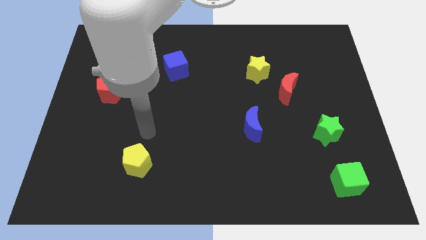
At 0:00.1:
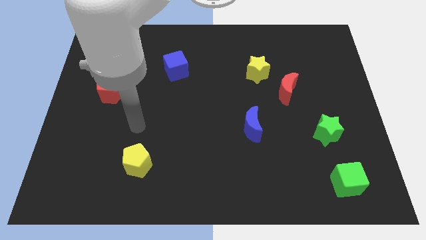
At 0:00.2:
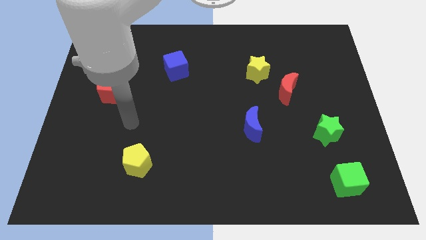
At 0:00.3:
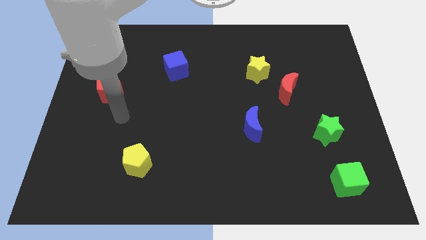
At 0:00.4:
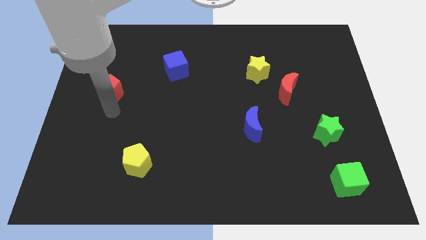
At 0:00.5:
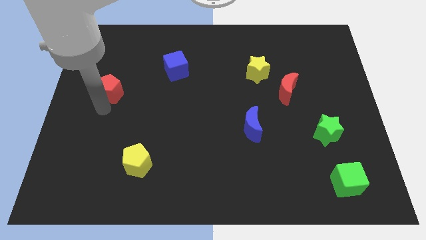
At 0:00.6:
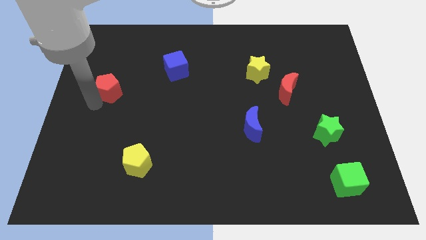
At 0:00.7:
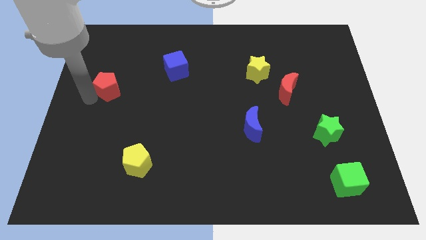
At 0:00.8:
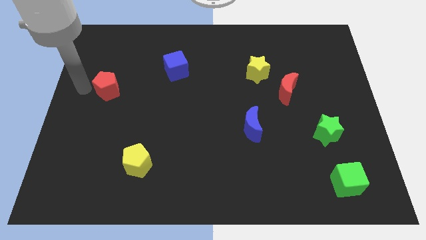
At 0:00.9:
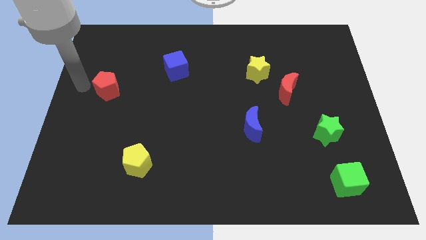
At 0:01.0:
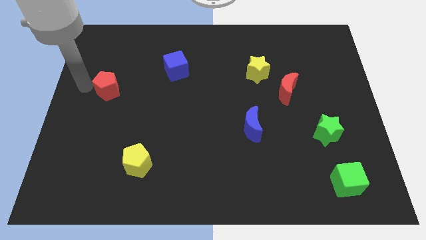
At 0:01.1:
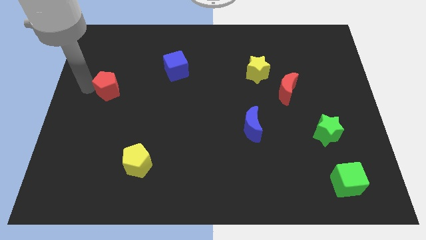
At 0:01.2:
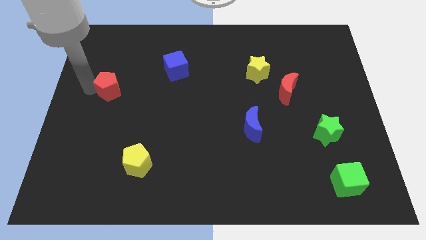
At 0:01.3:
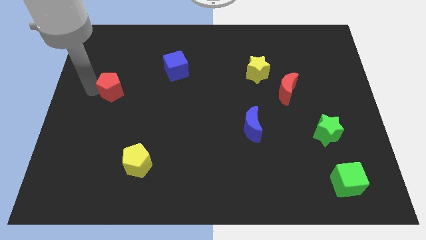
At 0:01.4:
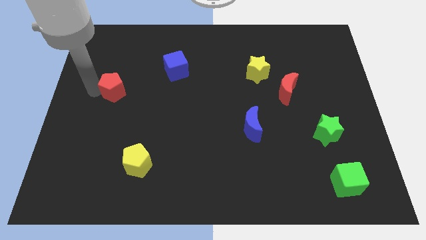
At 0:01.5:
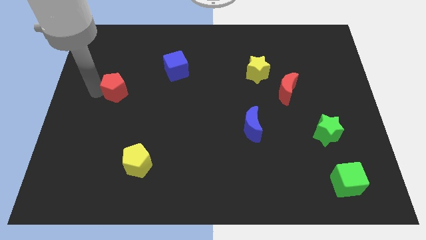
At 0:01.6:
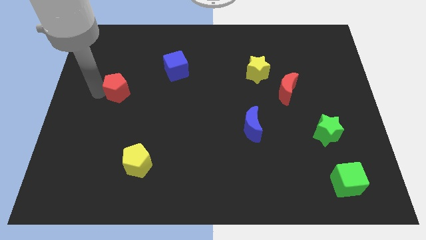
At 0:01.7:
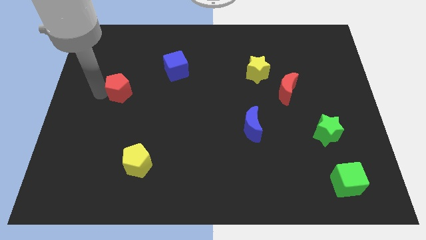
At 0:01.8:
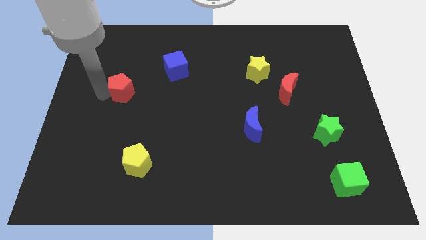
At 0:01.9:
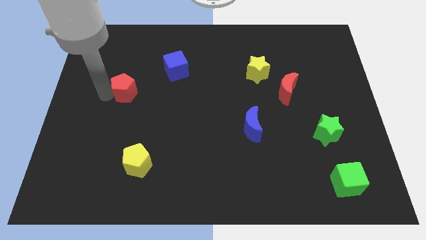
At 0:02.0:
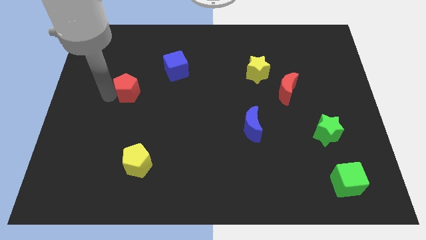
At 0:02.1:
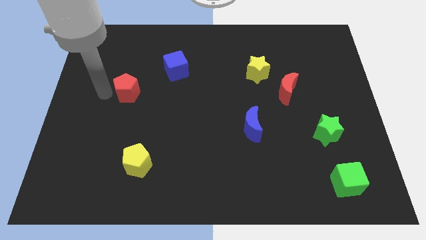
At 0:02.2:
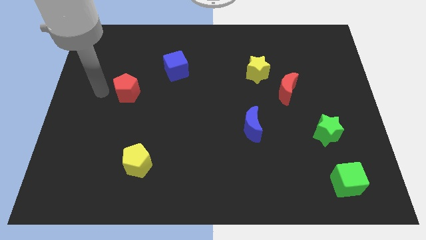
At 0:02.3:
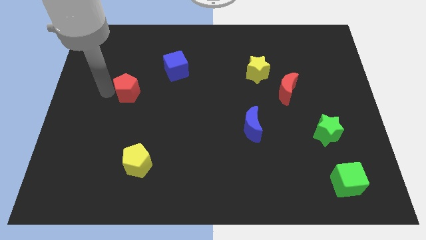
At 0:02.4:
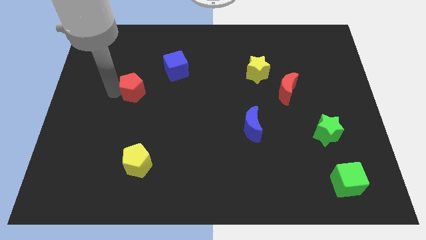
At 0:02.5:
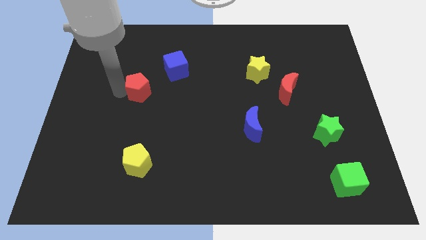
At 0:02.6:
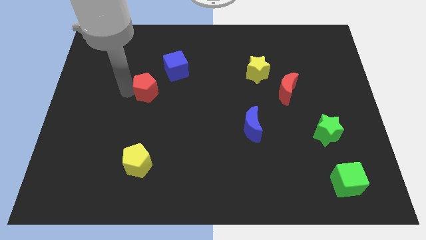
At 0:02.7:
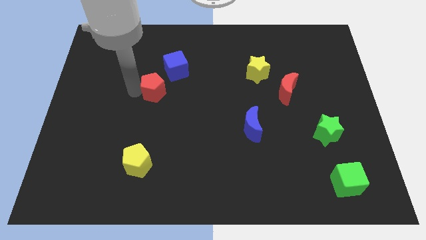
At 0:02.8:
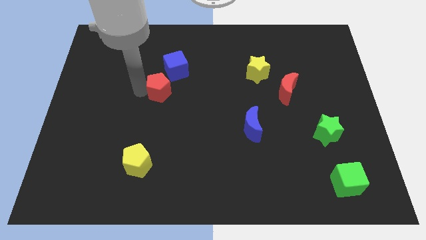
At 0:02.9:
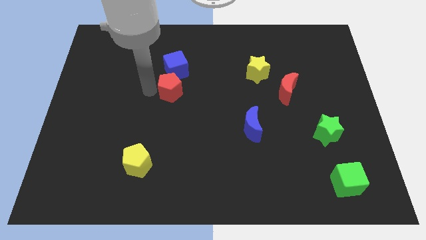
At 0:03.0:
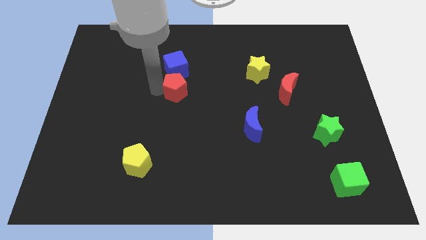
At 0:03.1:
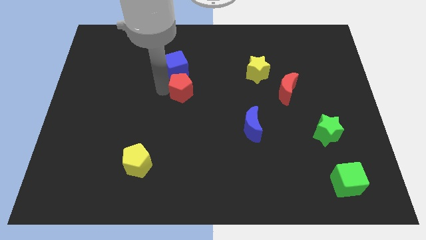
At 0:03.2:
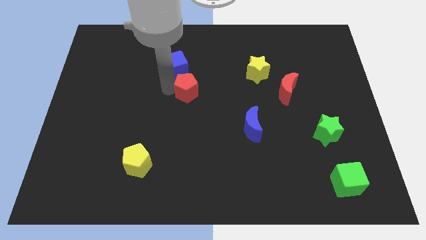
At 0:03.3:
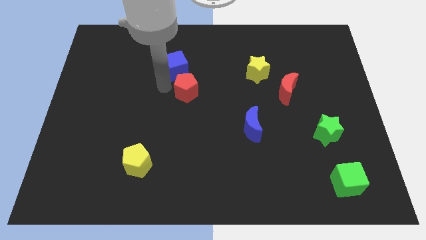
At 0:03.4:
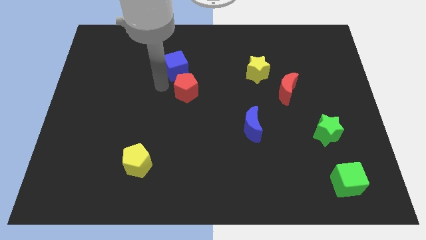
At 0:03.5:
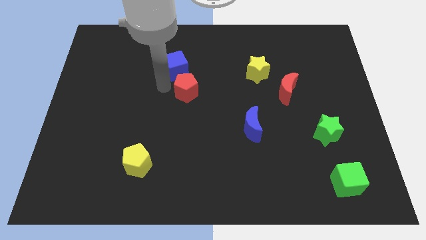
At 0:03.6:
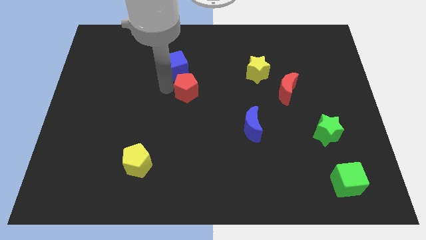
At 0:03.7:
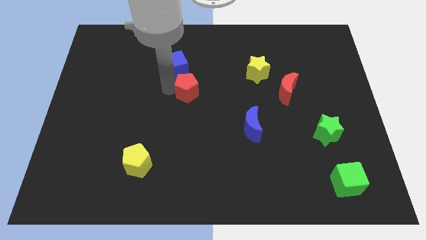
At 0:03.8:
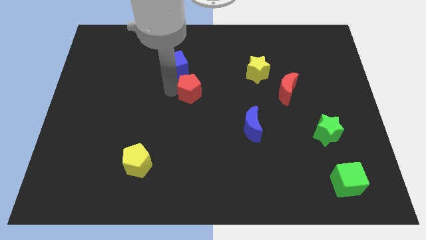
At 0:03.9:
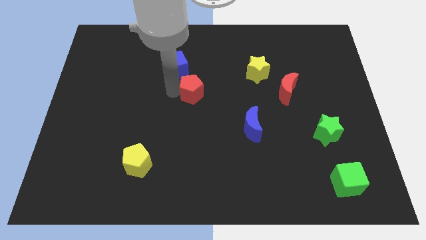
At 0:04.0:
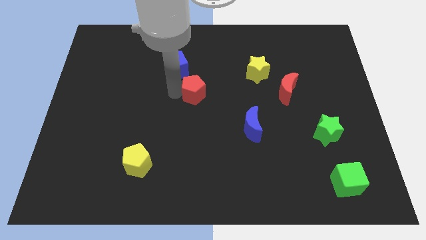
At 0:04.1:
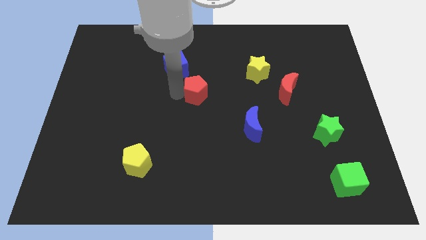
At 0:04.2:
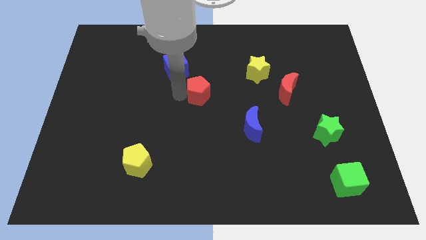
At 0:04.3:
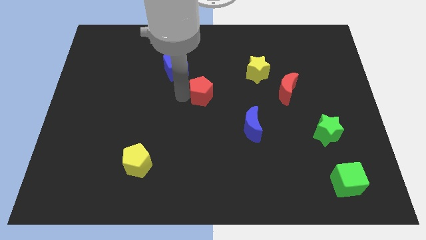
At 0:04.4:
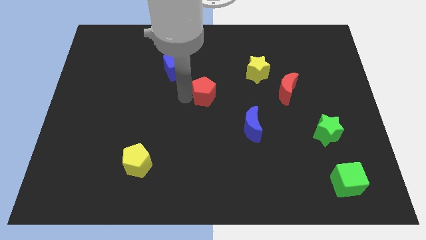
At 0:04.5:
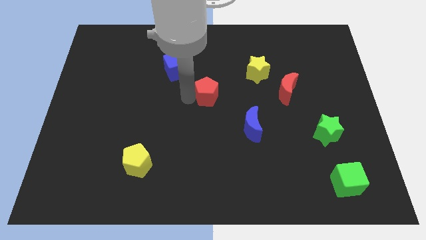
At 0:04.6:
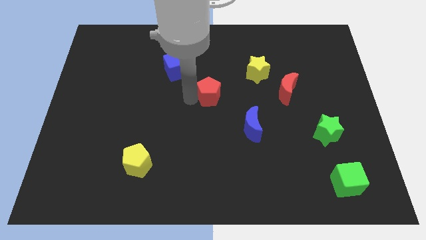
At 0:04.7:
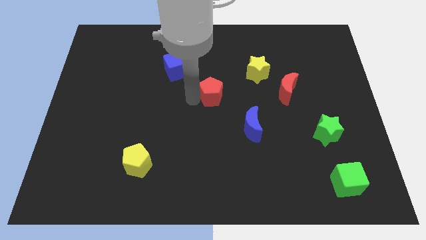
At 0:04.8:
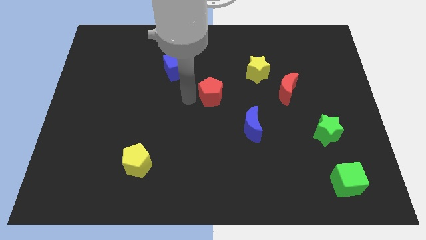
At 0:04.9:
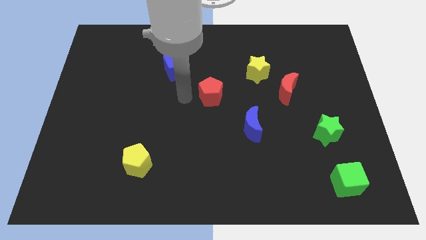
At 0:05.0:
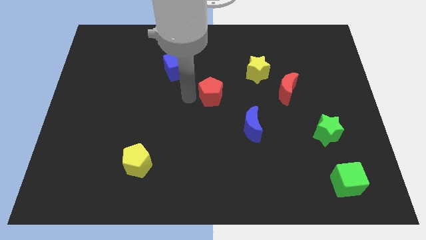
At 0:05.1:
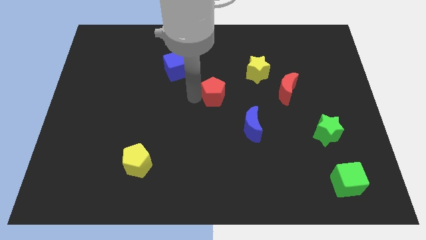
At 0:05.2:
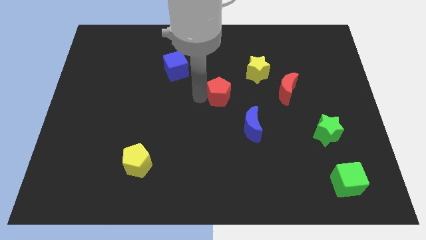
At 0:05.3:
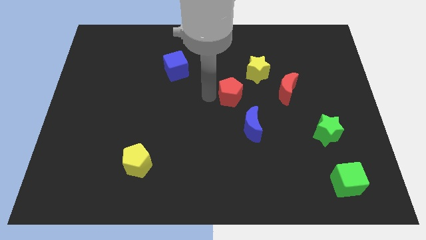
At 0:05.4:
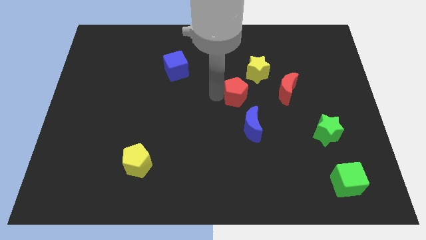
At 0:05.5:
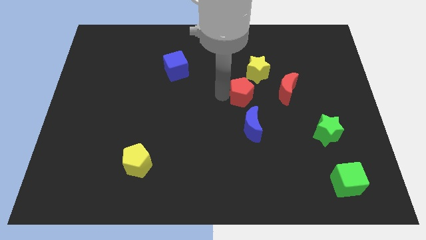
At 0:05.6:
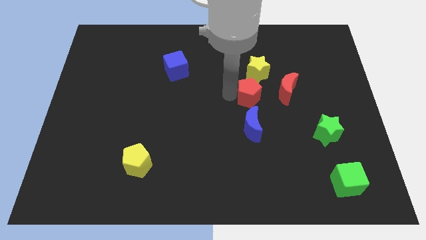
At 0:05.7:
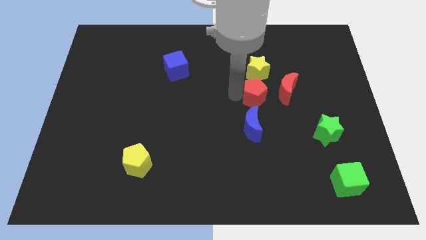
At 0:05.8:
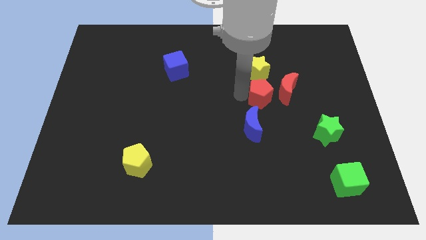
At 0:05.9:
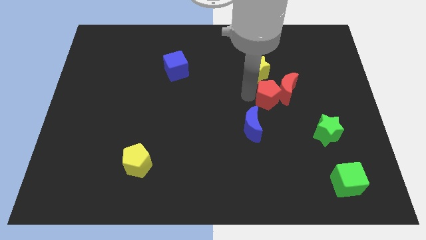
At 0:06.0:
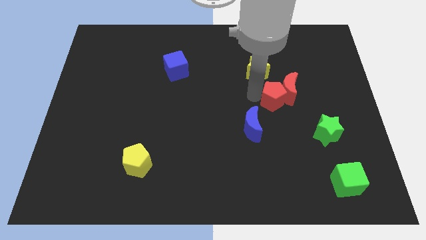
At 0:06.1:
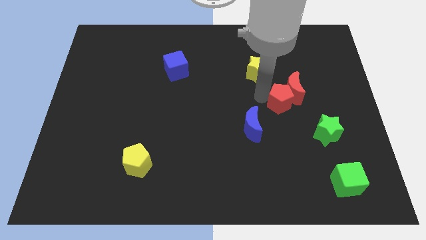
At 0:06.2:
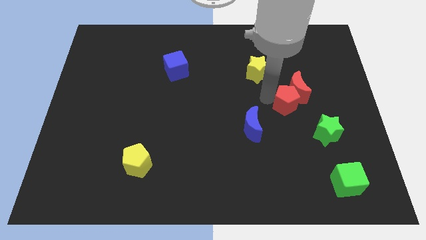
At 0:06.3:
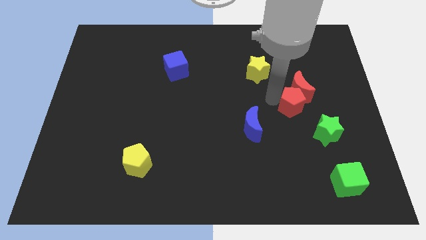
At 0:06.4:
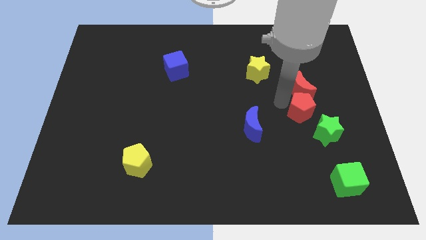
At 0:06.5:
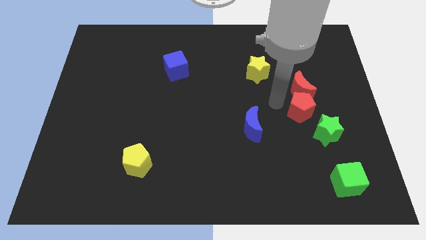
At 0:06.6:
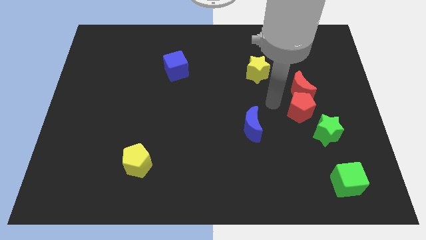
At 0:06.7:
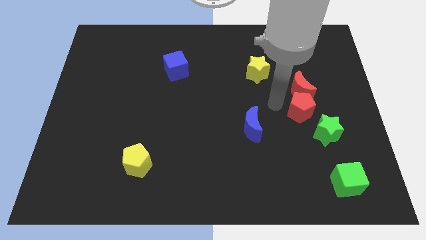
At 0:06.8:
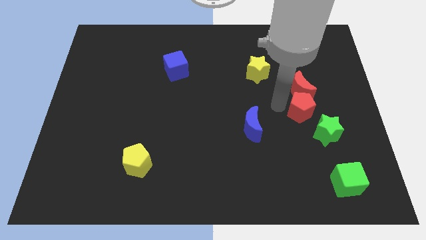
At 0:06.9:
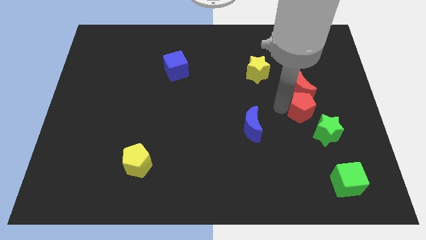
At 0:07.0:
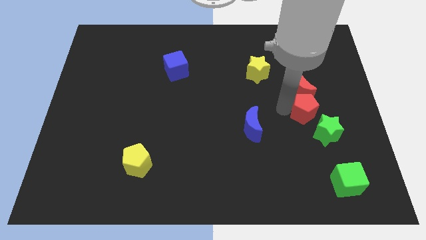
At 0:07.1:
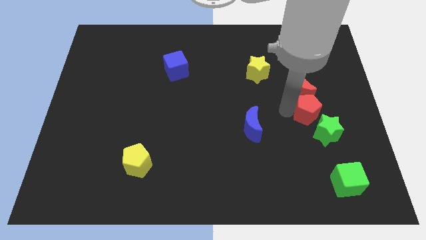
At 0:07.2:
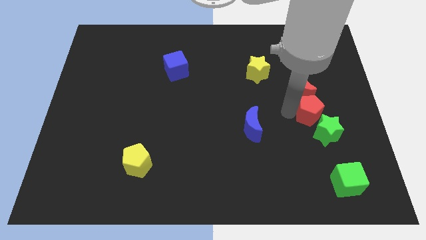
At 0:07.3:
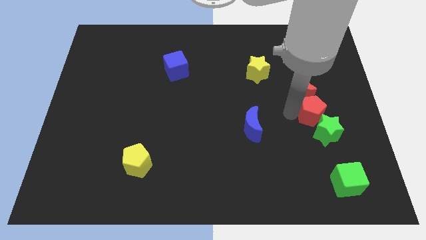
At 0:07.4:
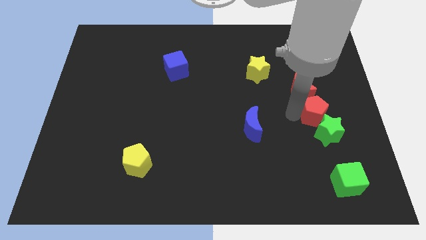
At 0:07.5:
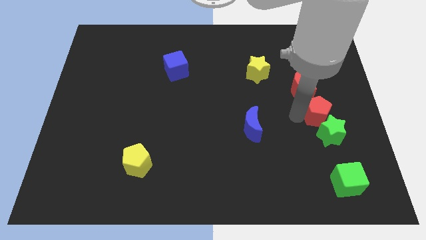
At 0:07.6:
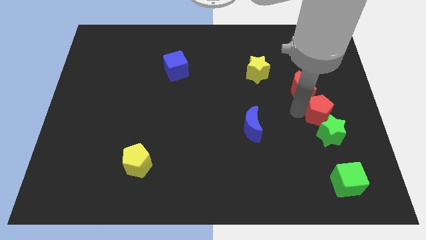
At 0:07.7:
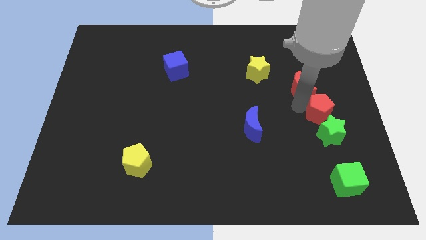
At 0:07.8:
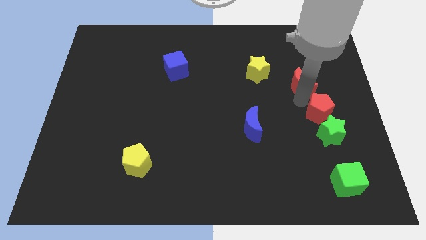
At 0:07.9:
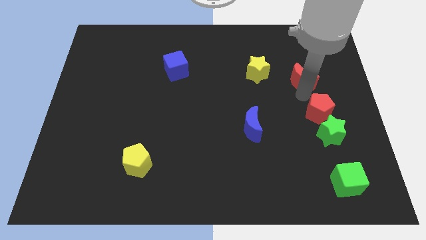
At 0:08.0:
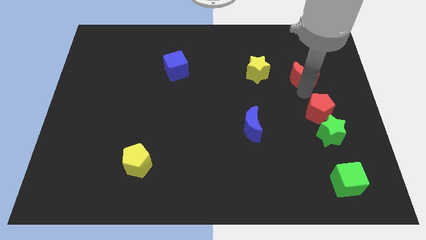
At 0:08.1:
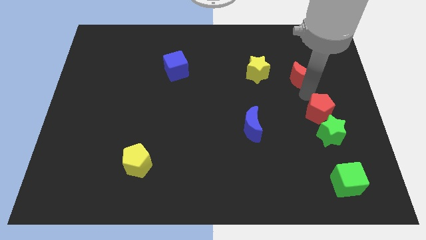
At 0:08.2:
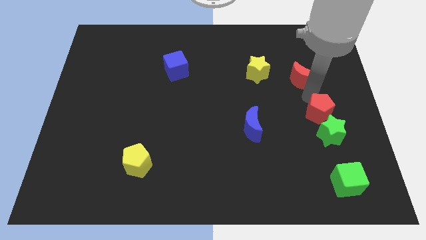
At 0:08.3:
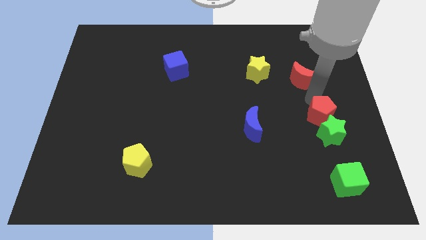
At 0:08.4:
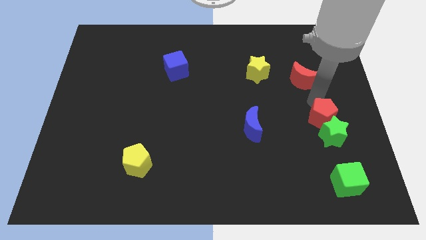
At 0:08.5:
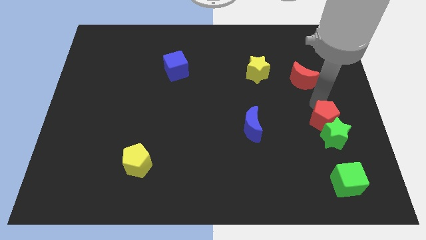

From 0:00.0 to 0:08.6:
slide the red pentagon to the top side of the green cube
